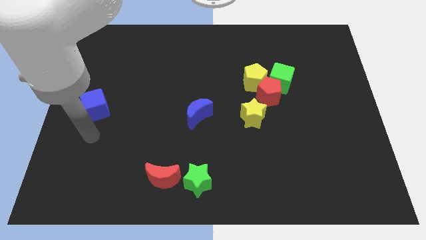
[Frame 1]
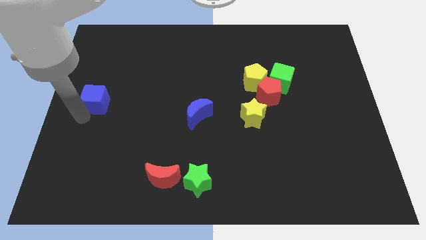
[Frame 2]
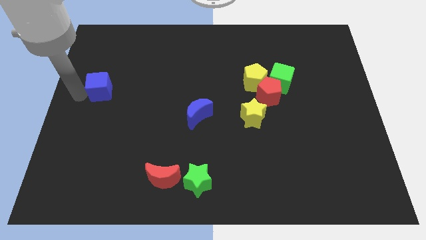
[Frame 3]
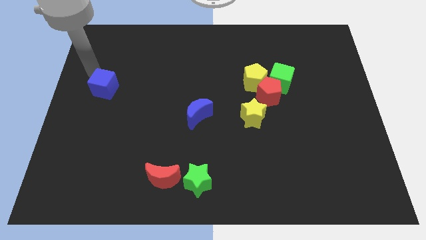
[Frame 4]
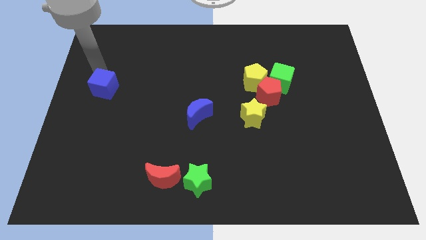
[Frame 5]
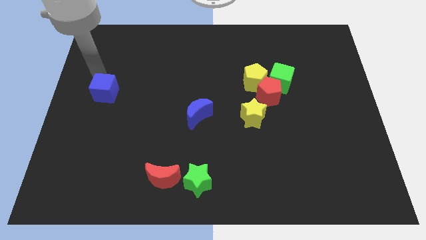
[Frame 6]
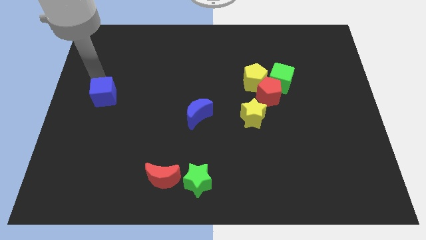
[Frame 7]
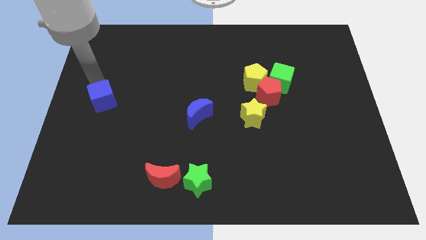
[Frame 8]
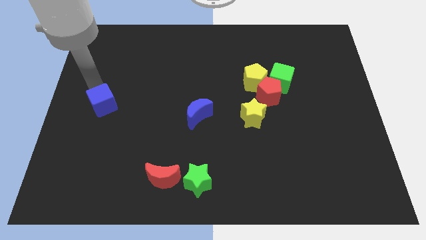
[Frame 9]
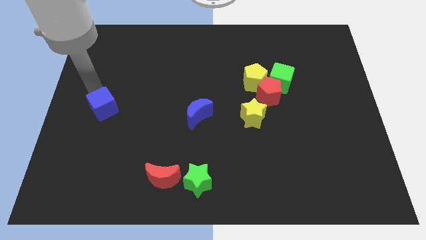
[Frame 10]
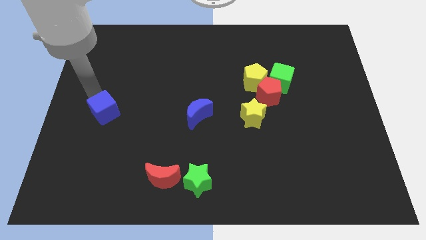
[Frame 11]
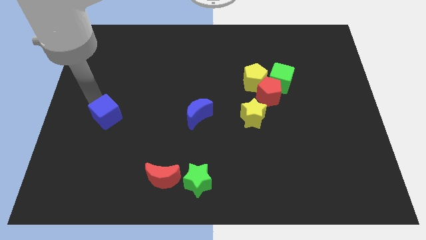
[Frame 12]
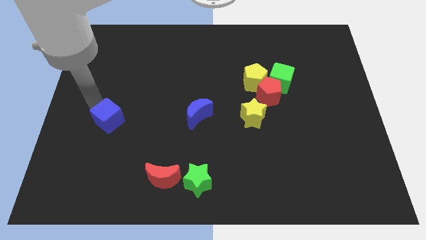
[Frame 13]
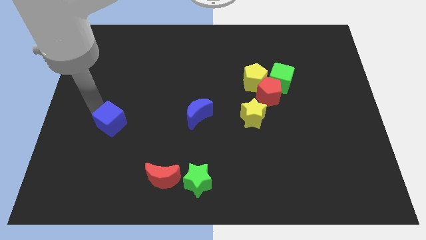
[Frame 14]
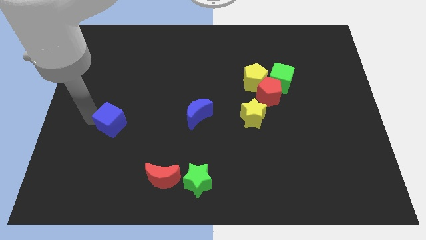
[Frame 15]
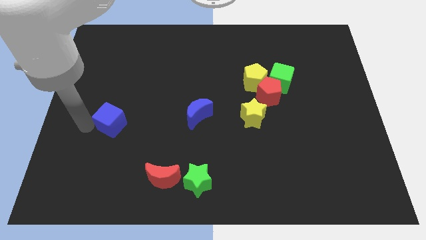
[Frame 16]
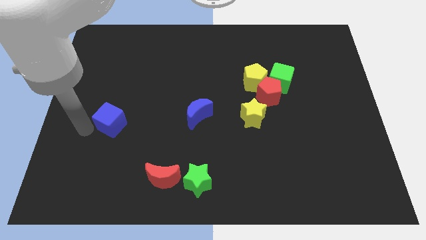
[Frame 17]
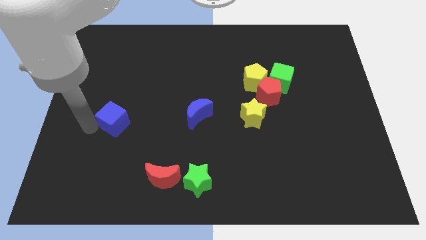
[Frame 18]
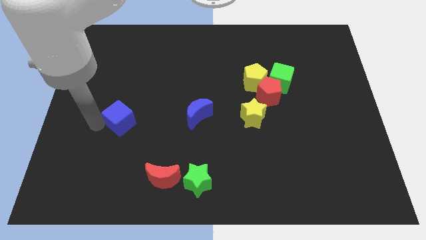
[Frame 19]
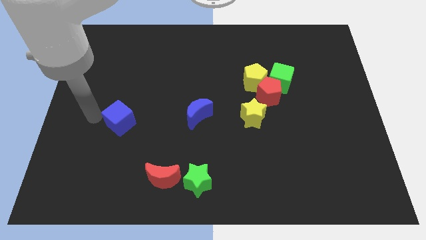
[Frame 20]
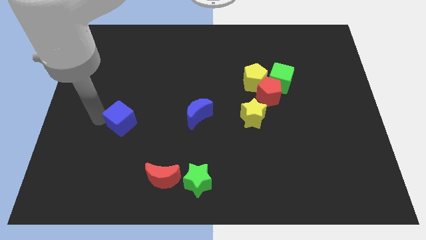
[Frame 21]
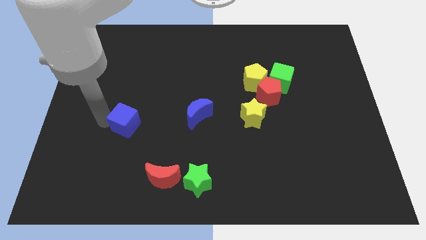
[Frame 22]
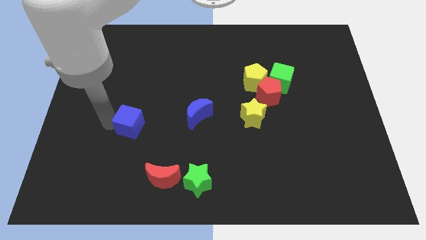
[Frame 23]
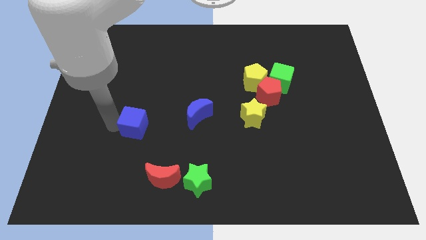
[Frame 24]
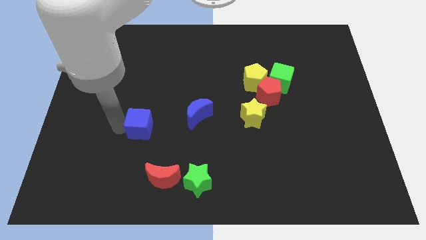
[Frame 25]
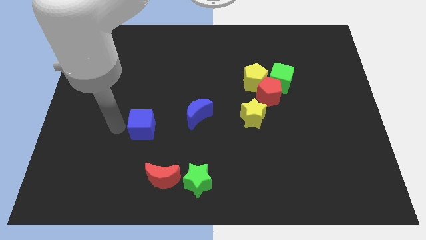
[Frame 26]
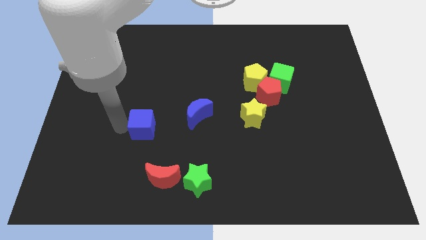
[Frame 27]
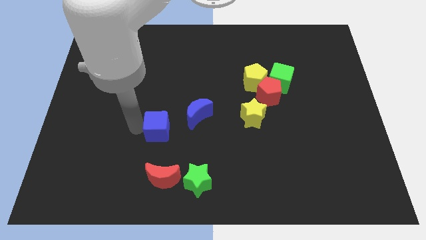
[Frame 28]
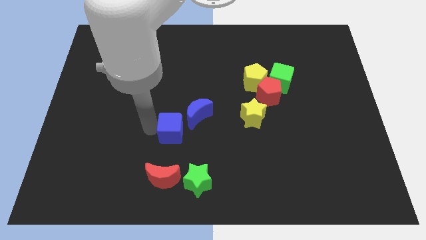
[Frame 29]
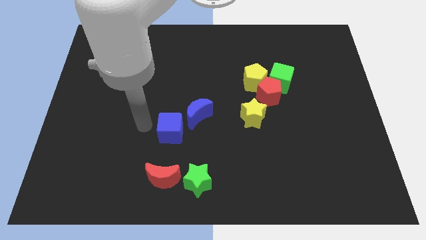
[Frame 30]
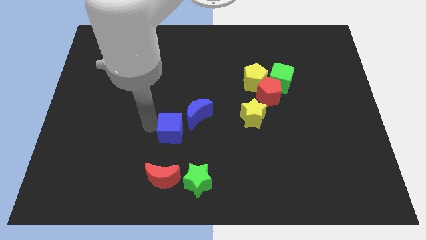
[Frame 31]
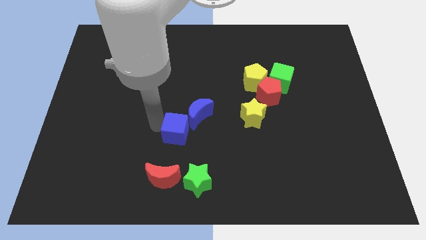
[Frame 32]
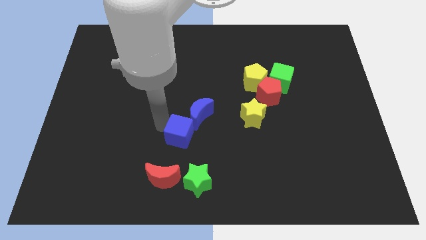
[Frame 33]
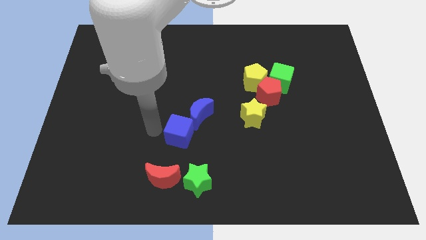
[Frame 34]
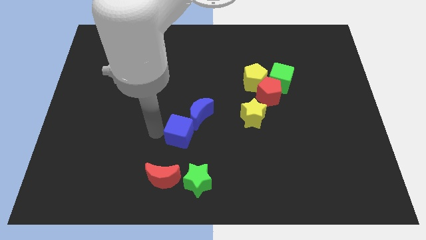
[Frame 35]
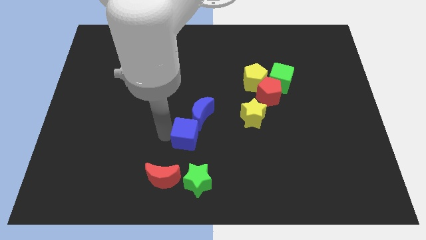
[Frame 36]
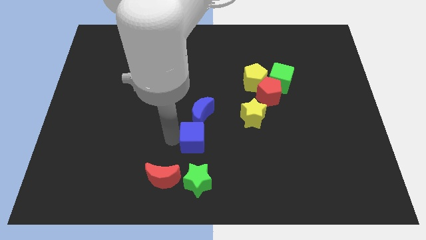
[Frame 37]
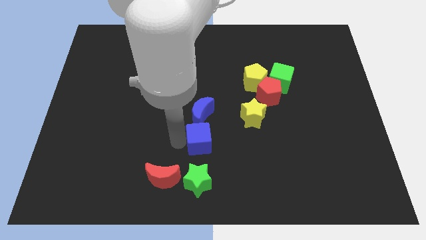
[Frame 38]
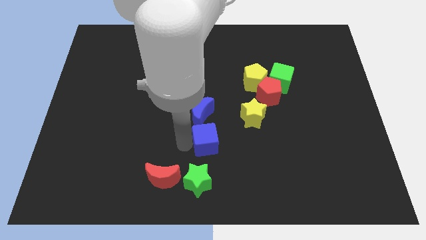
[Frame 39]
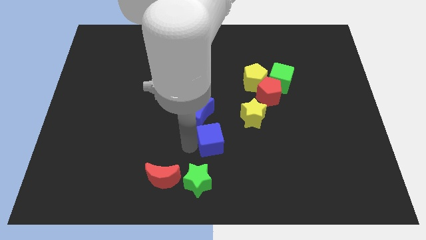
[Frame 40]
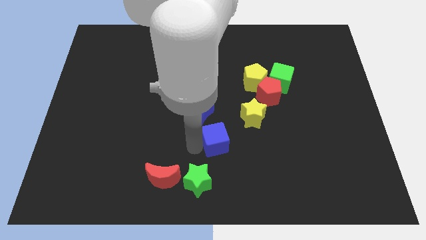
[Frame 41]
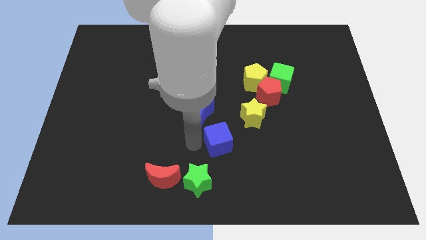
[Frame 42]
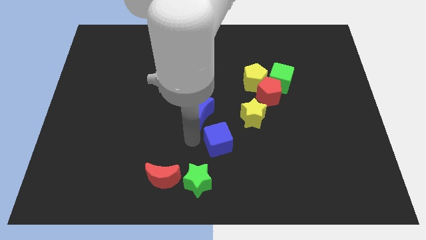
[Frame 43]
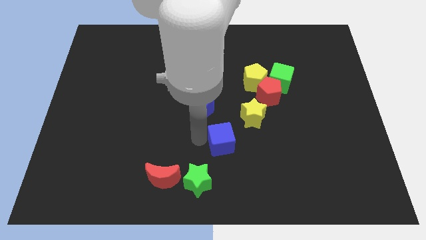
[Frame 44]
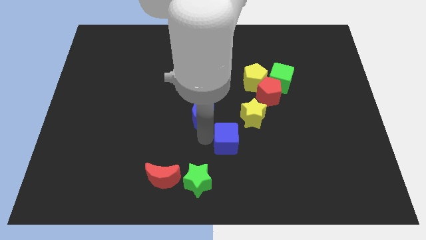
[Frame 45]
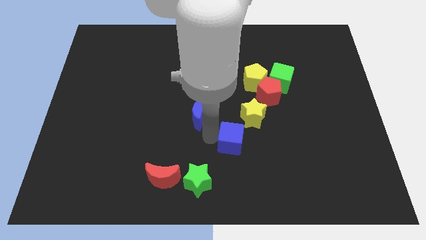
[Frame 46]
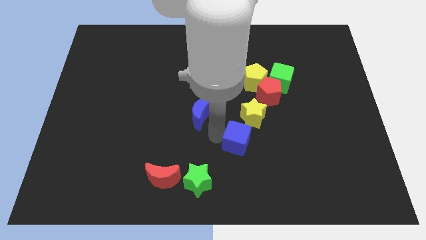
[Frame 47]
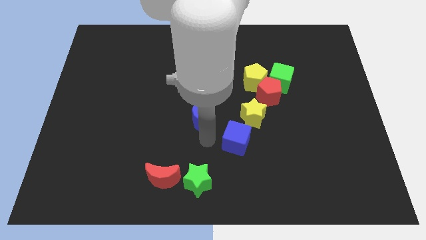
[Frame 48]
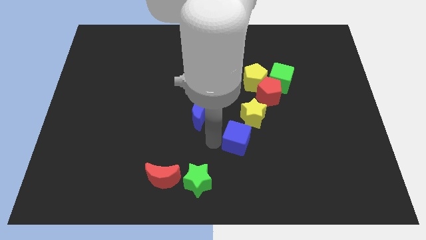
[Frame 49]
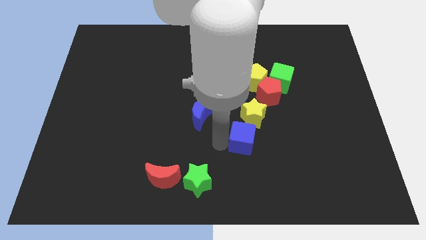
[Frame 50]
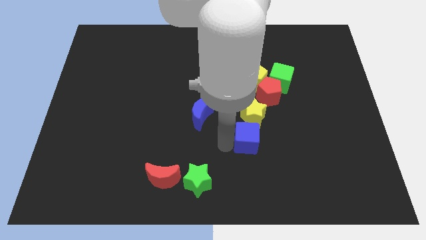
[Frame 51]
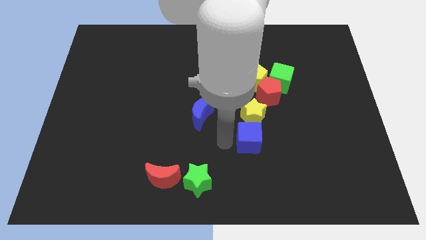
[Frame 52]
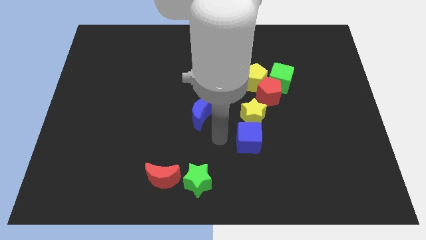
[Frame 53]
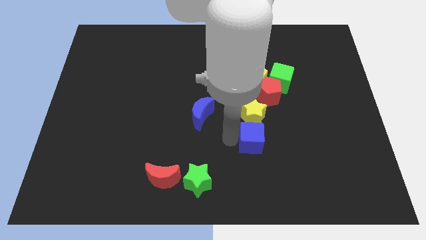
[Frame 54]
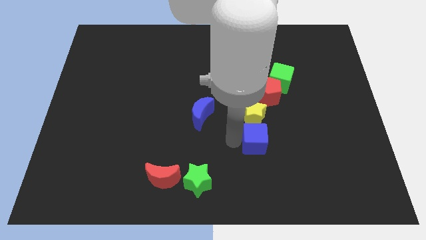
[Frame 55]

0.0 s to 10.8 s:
push the blue cube to the bottom side of the red pentagon

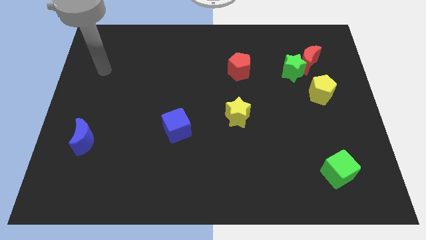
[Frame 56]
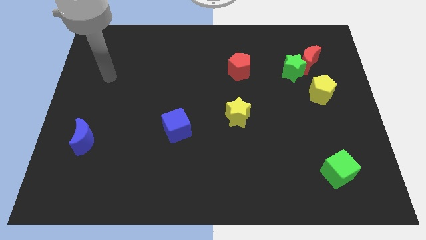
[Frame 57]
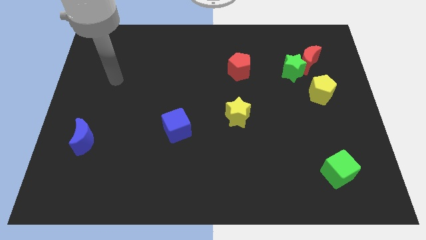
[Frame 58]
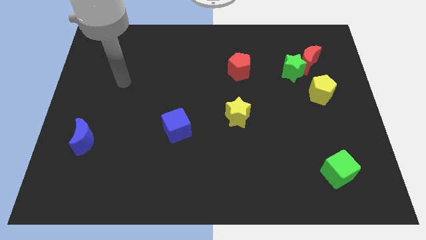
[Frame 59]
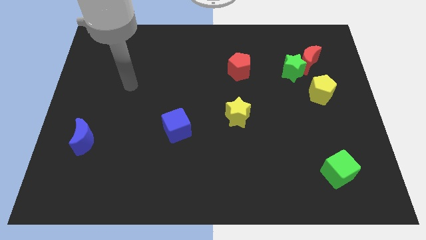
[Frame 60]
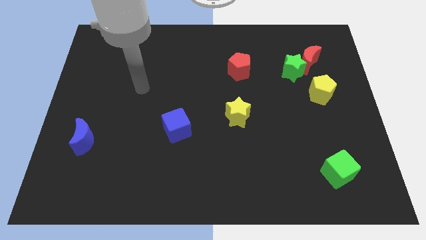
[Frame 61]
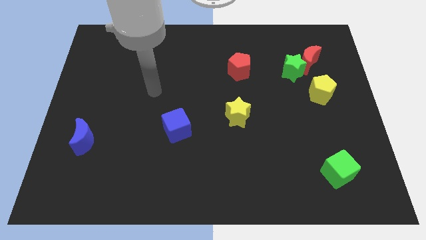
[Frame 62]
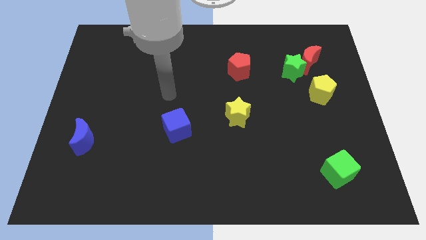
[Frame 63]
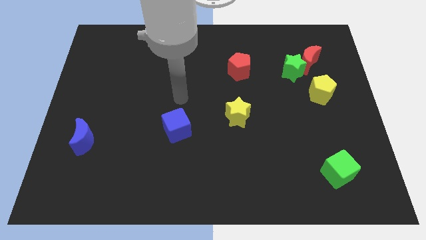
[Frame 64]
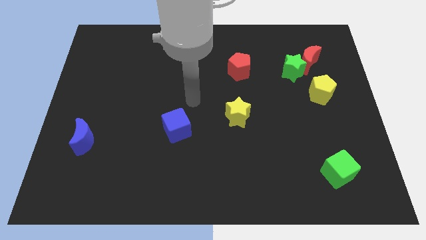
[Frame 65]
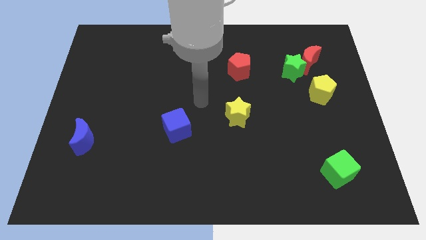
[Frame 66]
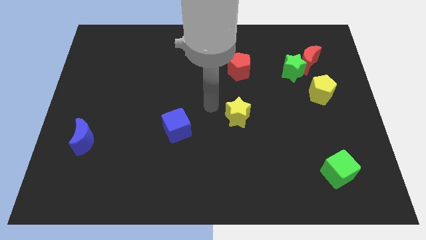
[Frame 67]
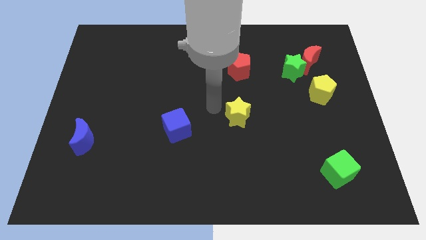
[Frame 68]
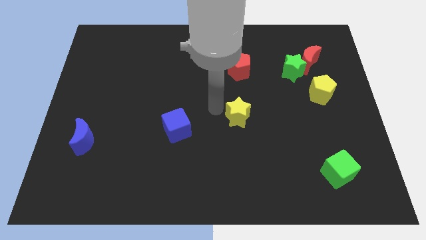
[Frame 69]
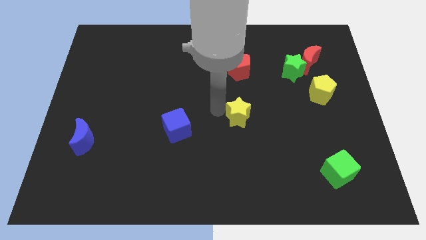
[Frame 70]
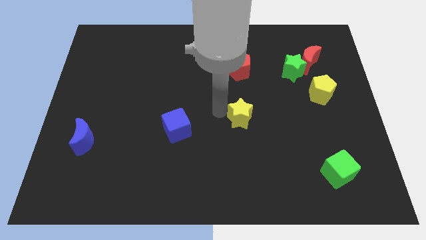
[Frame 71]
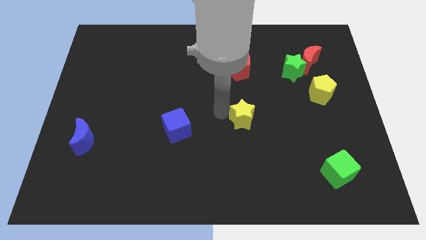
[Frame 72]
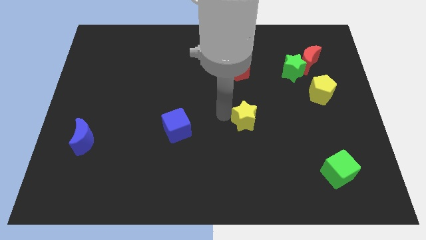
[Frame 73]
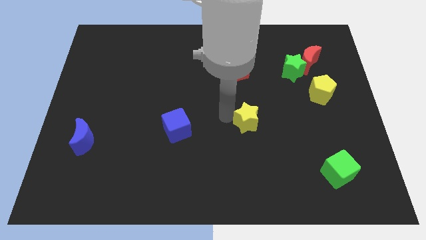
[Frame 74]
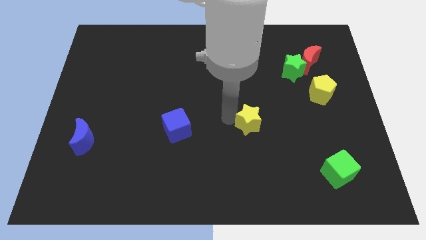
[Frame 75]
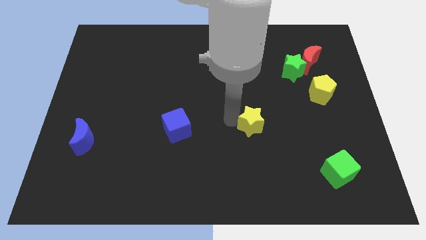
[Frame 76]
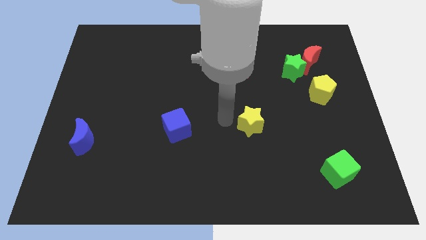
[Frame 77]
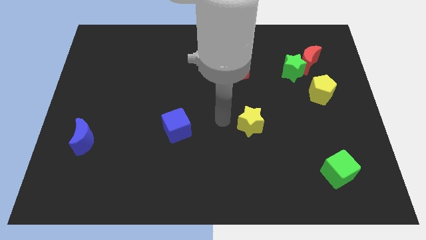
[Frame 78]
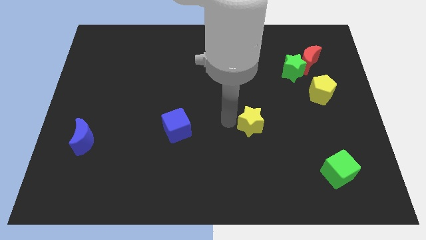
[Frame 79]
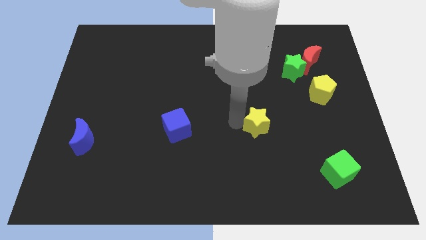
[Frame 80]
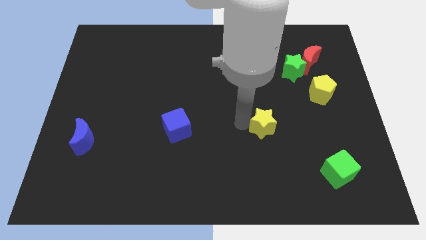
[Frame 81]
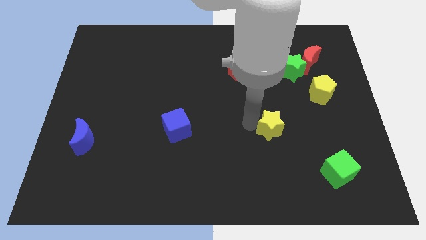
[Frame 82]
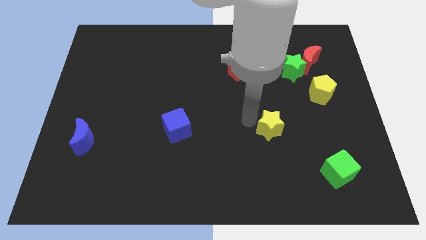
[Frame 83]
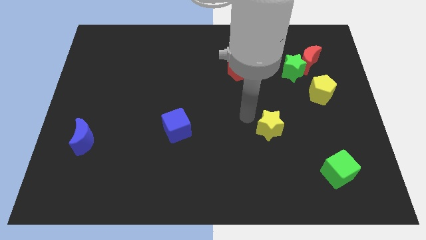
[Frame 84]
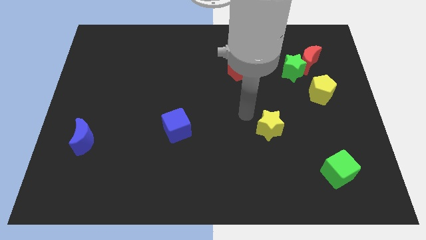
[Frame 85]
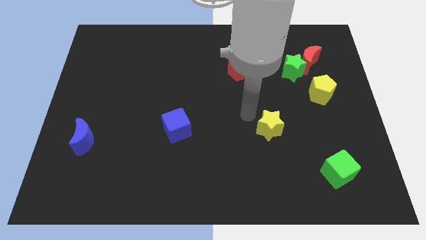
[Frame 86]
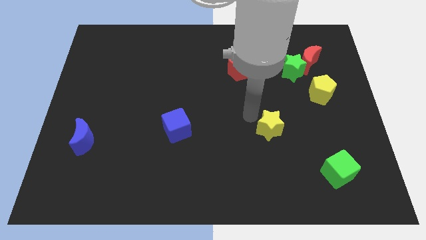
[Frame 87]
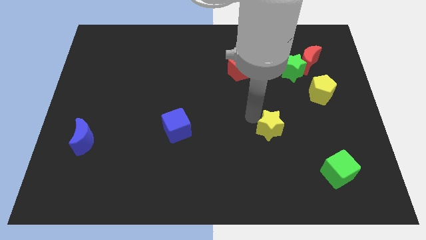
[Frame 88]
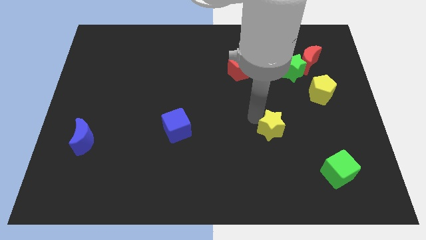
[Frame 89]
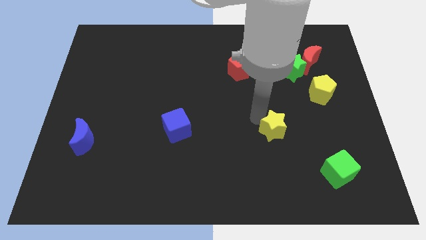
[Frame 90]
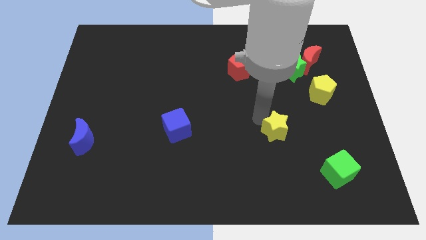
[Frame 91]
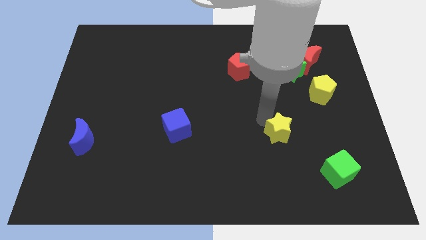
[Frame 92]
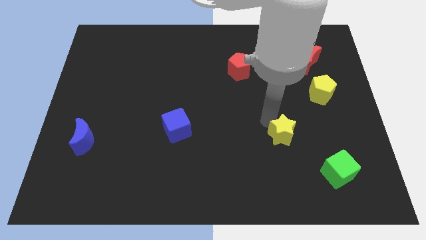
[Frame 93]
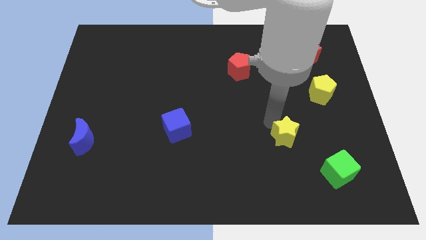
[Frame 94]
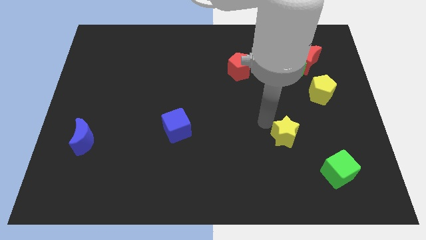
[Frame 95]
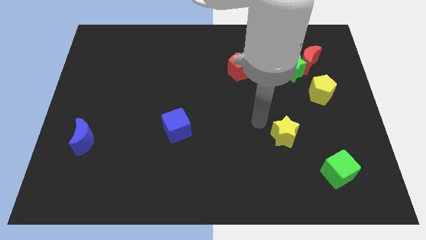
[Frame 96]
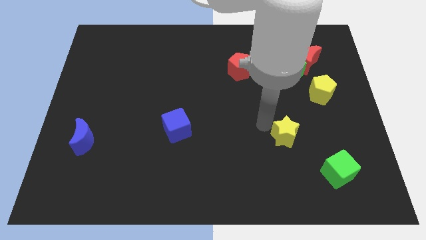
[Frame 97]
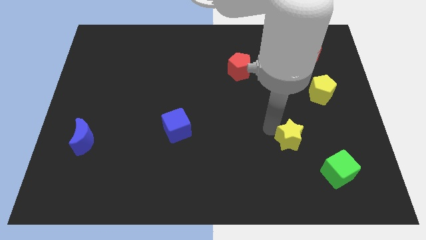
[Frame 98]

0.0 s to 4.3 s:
put the yellow star to the top left side of the green cube
